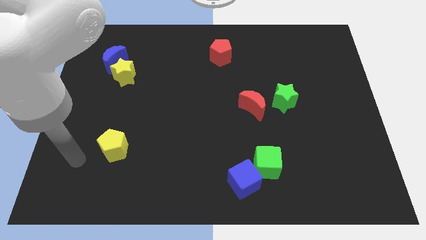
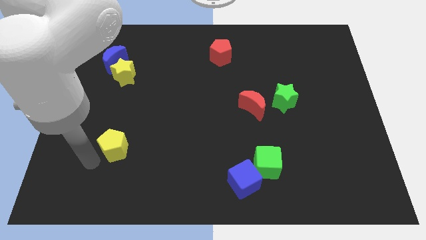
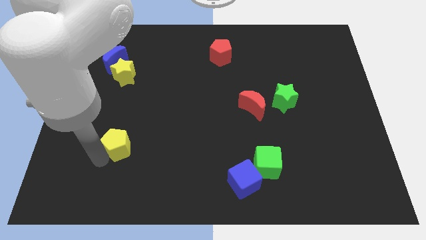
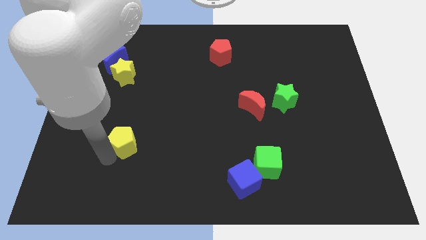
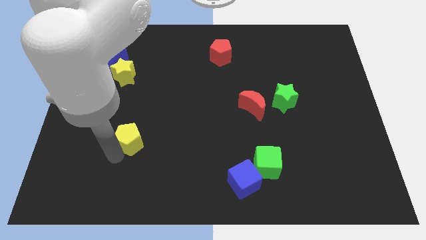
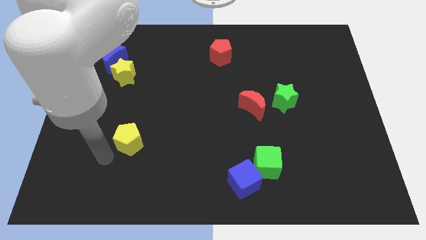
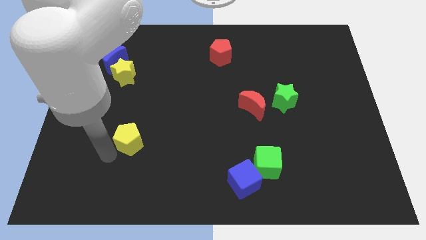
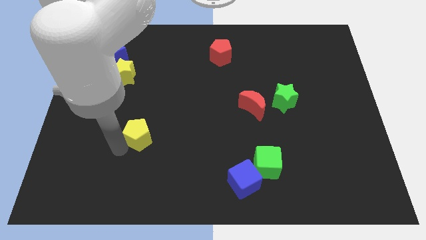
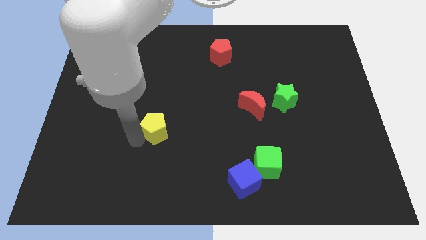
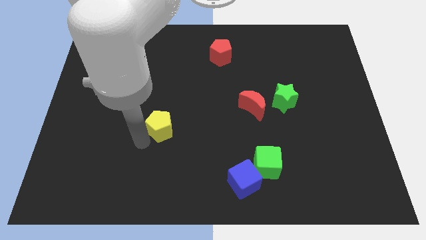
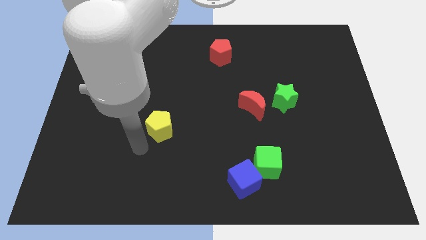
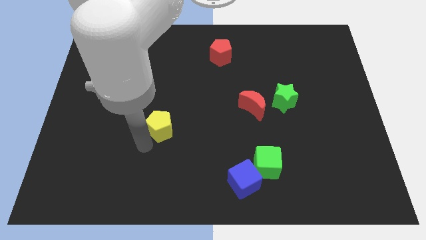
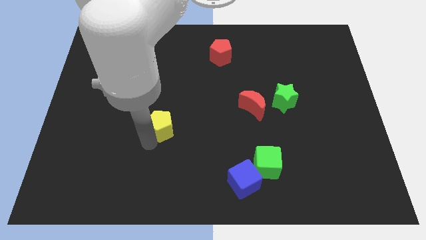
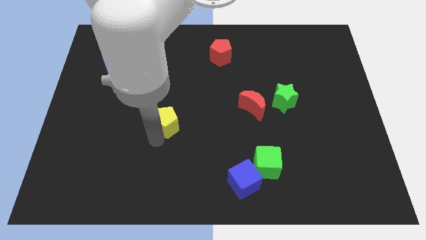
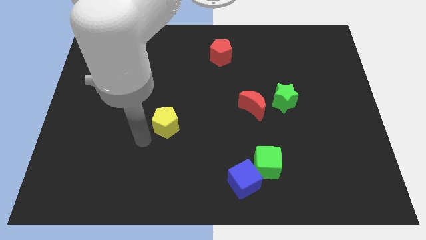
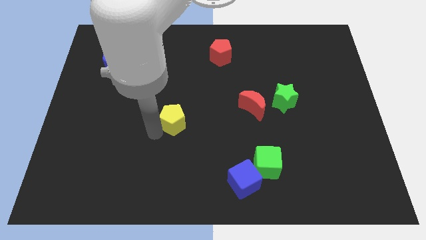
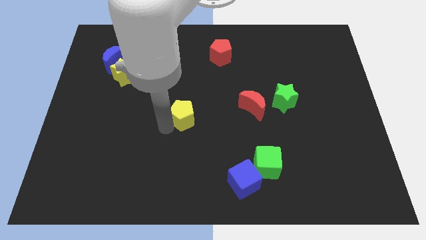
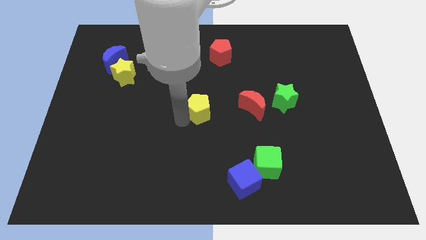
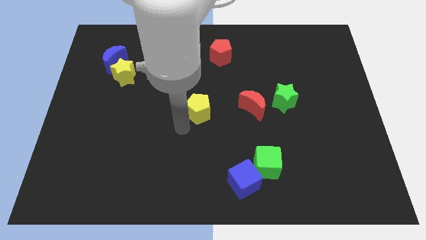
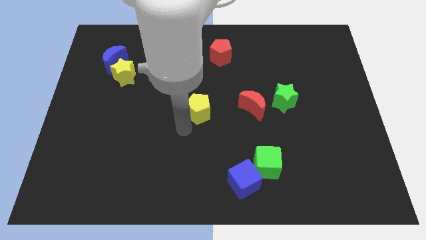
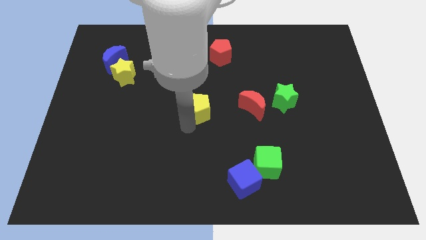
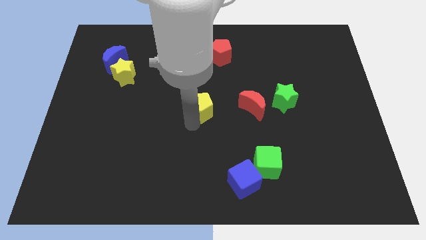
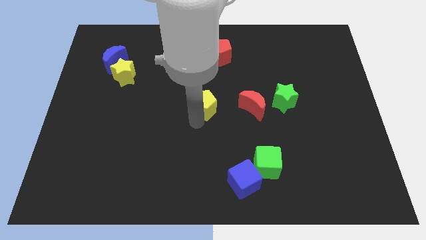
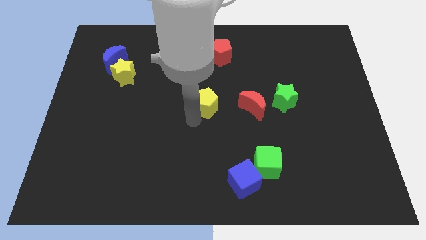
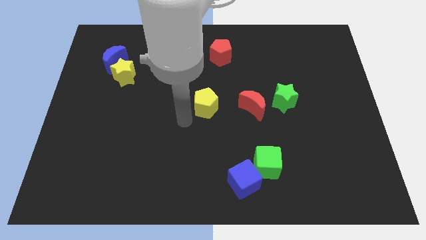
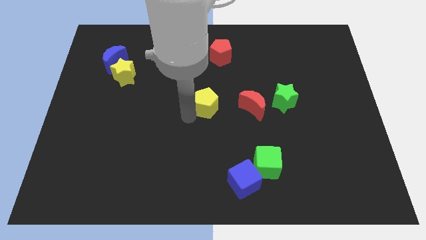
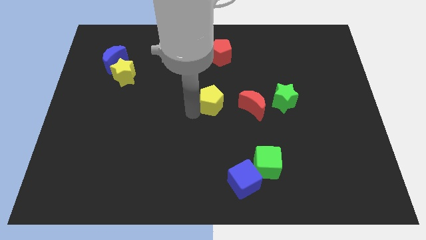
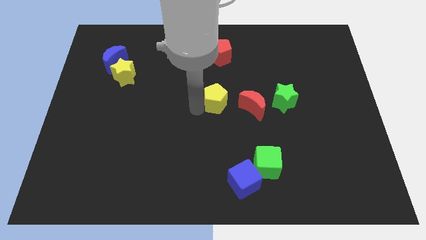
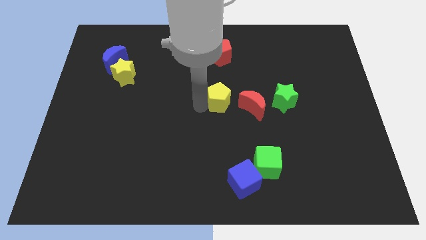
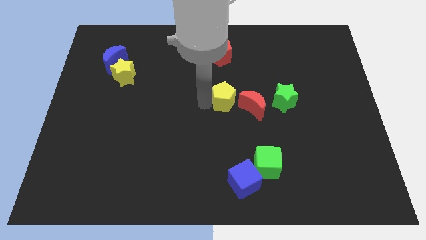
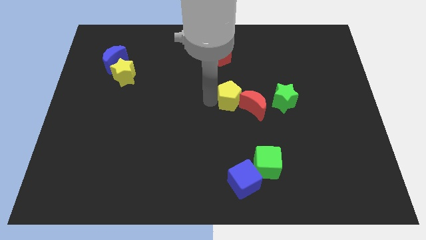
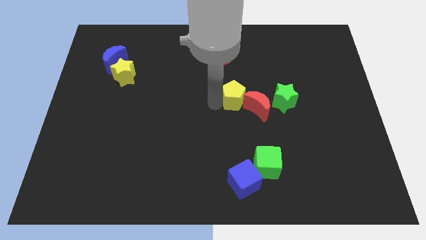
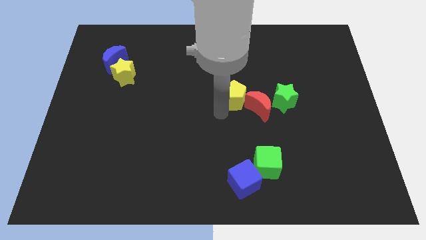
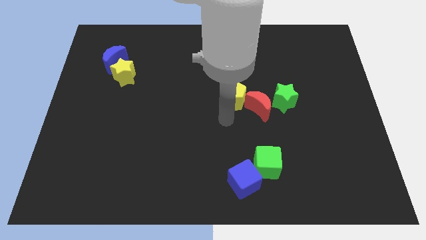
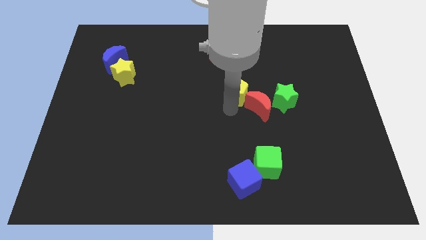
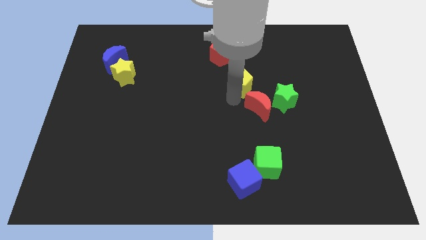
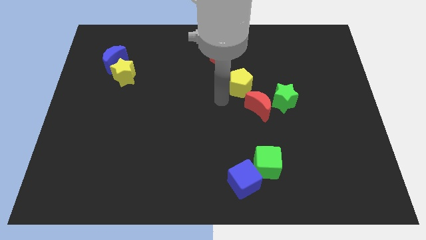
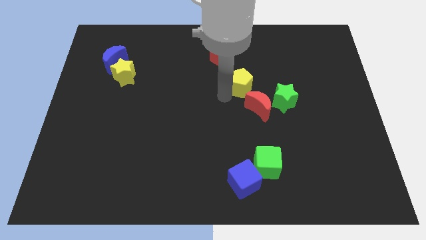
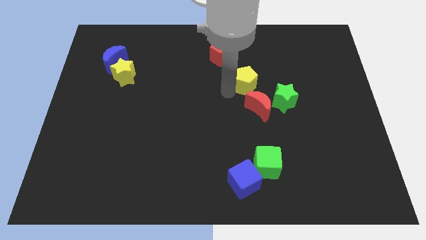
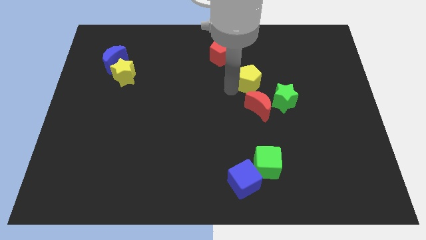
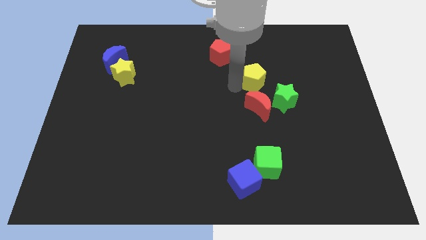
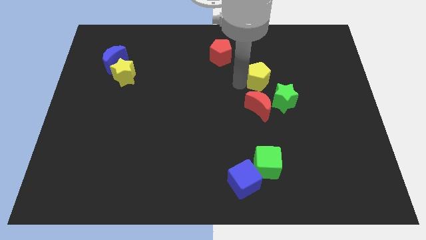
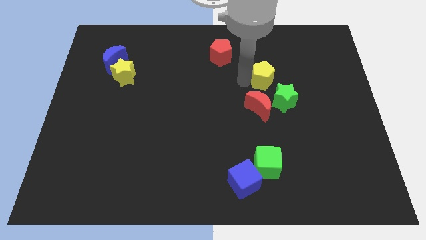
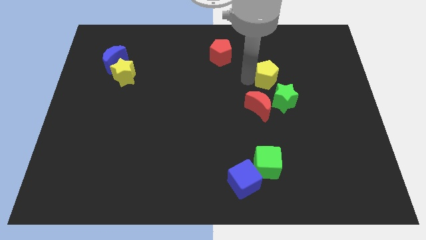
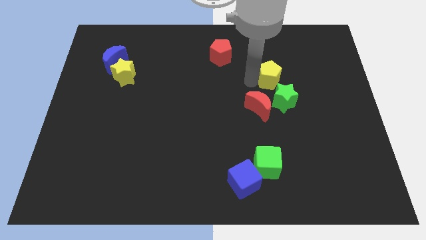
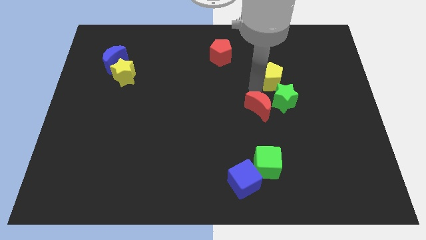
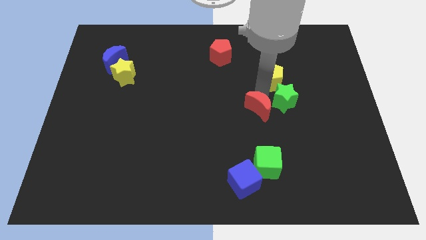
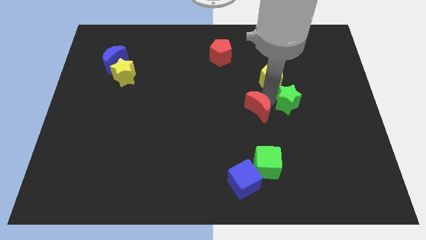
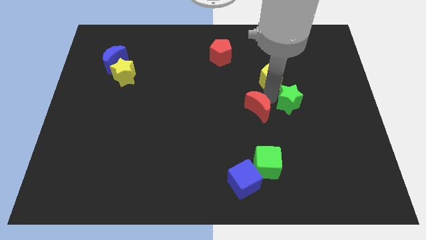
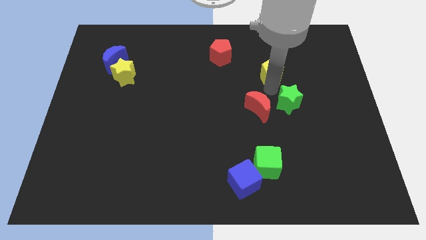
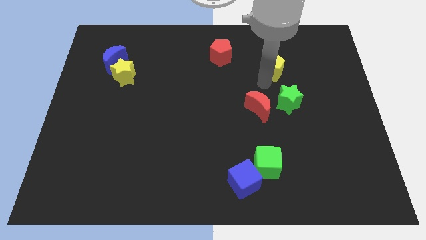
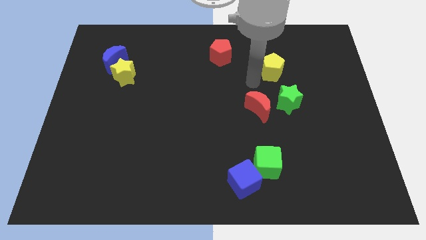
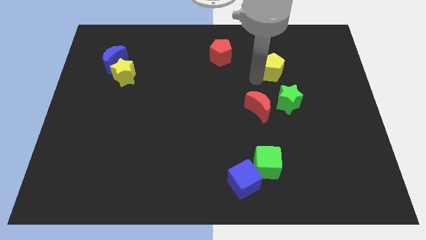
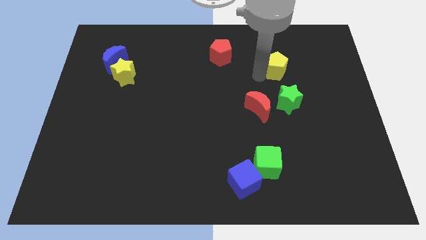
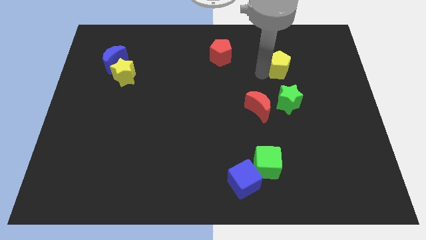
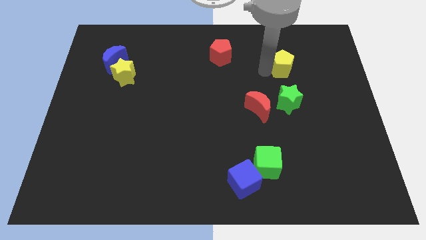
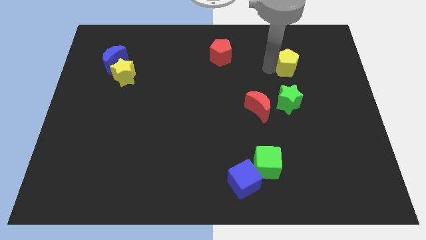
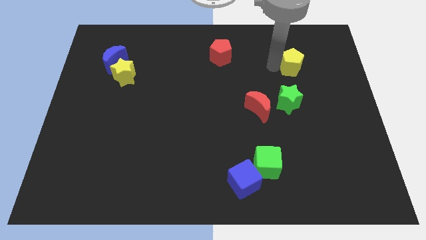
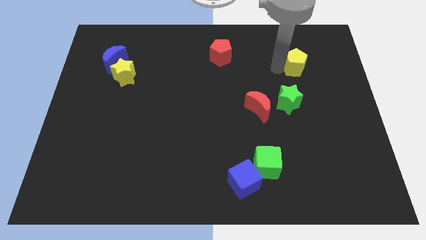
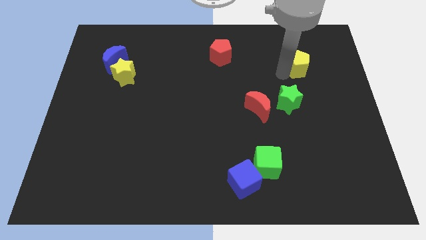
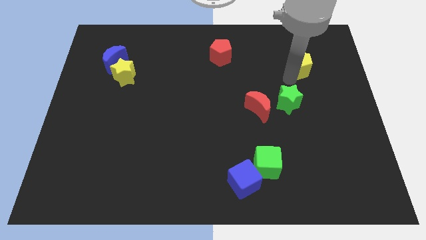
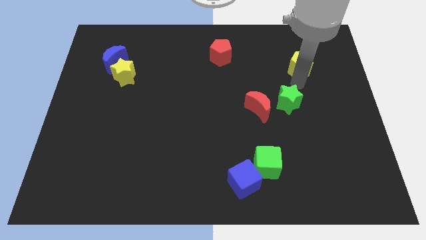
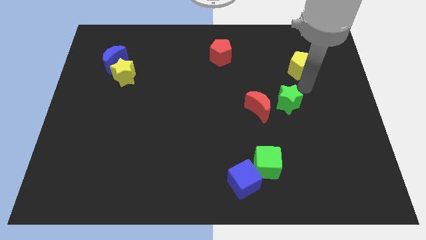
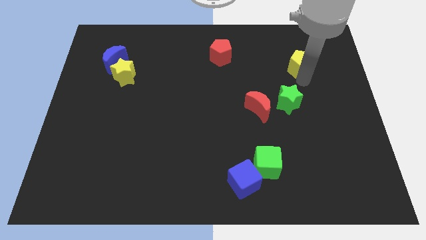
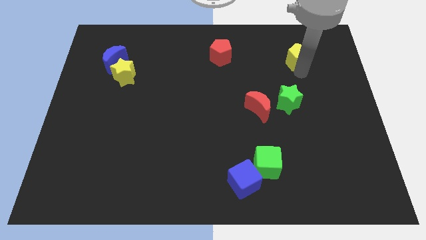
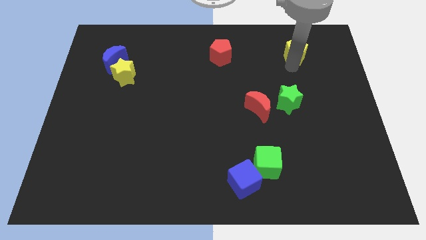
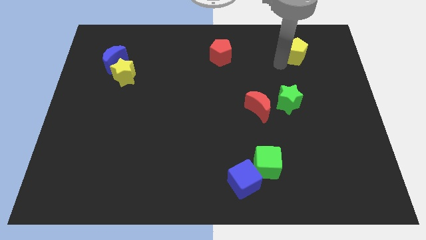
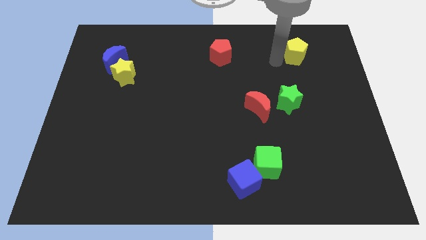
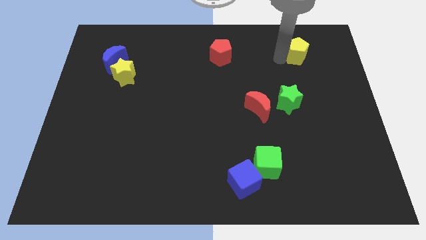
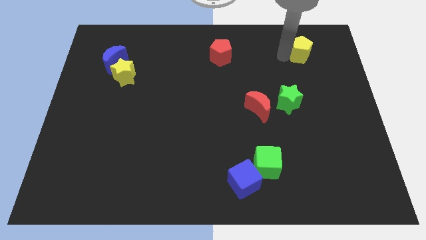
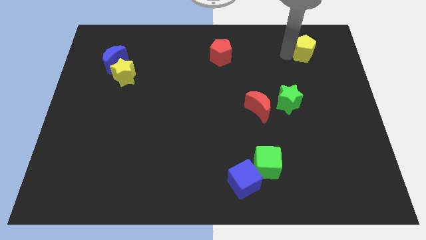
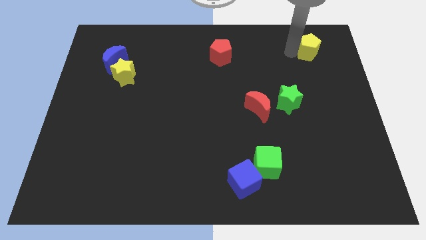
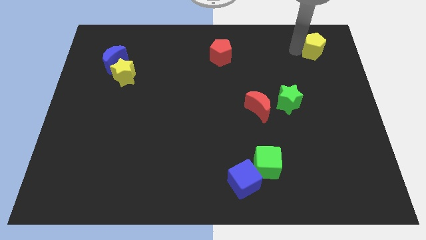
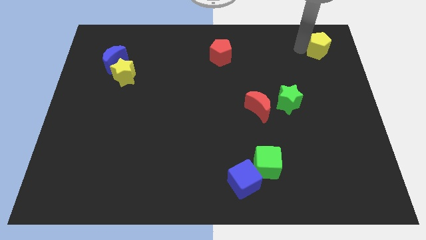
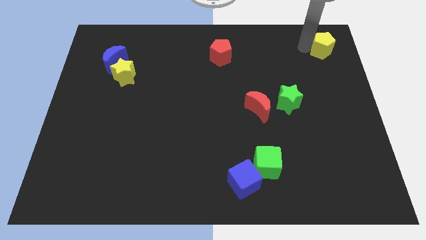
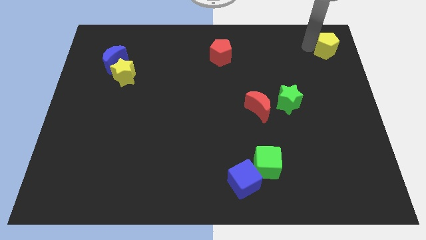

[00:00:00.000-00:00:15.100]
push the yellow pentagon to the top right corner
